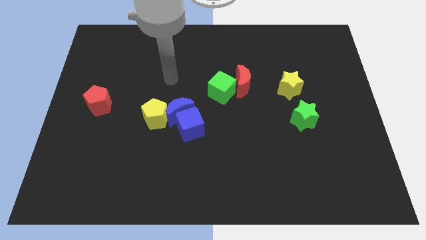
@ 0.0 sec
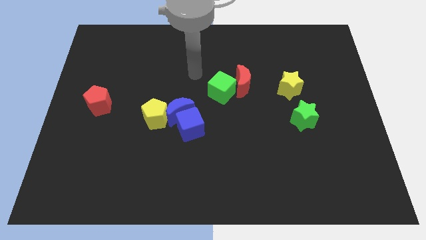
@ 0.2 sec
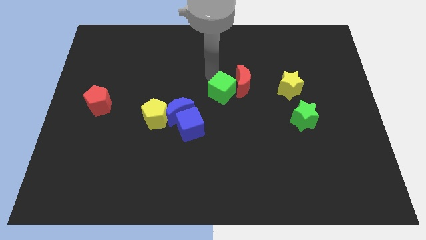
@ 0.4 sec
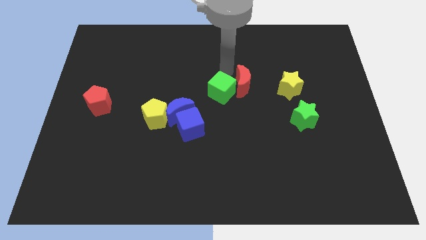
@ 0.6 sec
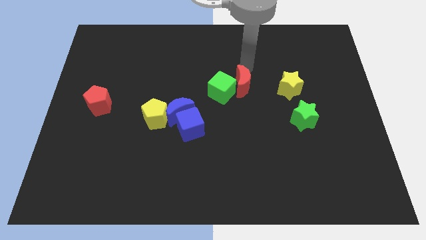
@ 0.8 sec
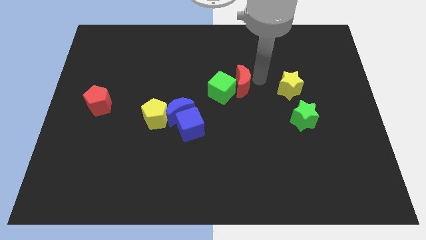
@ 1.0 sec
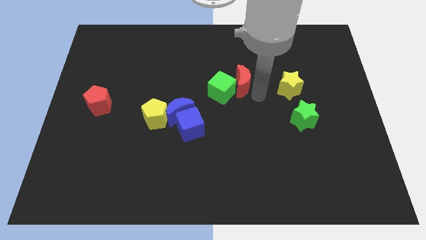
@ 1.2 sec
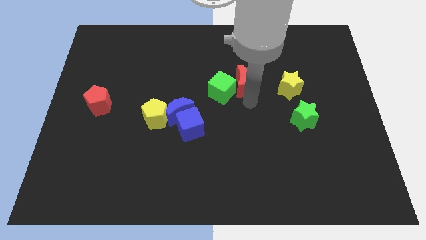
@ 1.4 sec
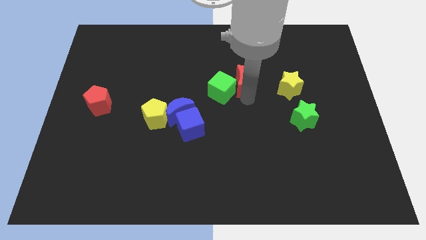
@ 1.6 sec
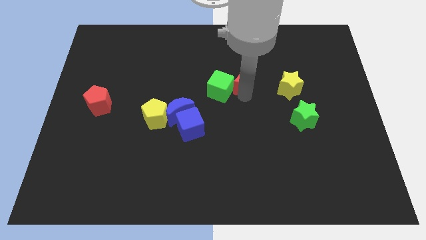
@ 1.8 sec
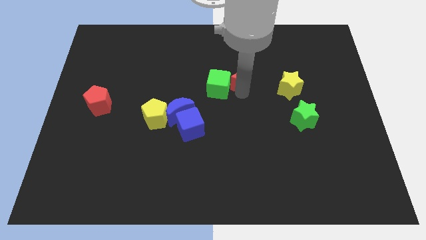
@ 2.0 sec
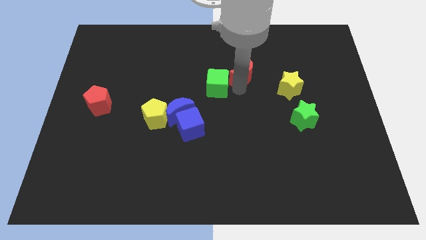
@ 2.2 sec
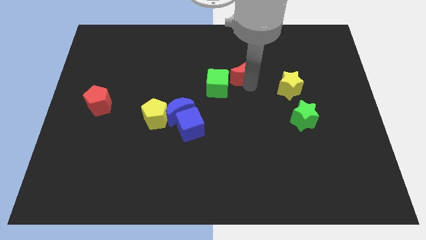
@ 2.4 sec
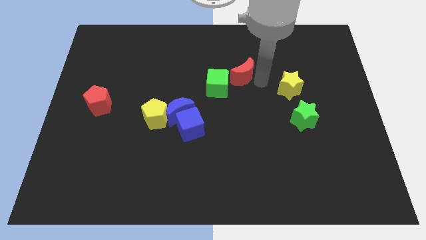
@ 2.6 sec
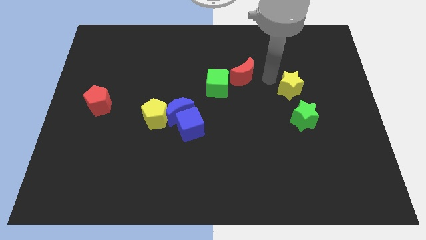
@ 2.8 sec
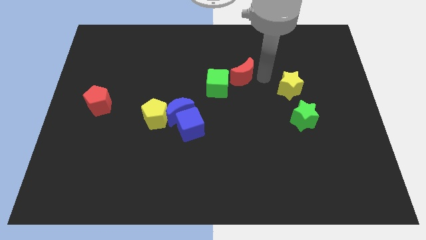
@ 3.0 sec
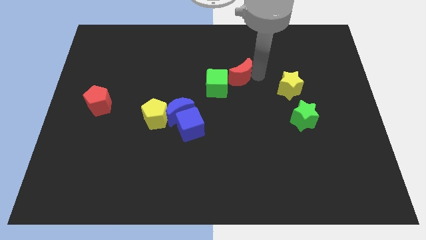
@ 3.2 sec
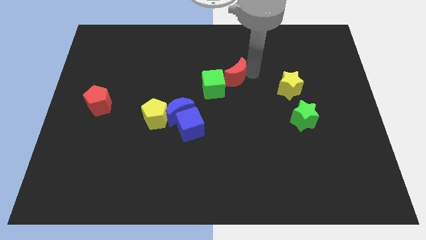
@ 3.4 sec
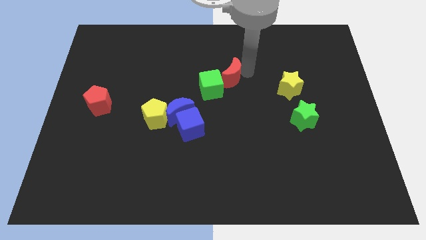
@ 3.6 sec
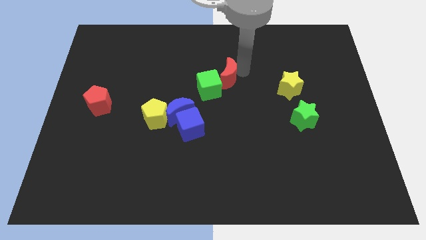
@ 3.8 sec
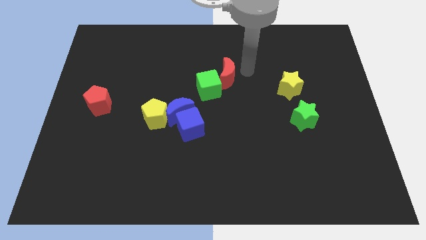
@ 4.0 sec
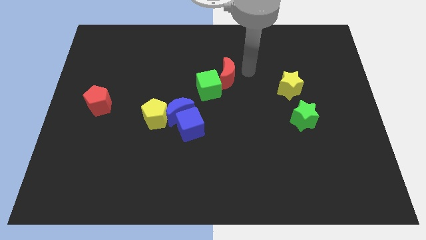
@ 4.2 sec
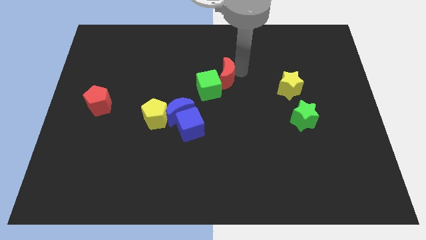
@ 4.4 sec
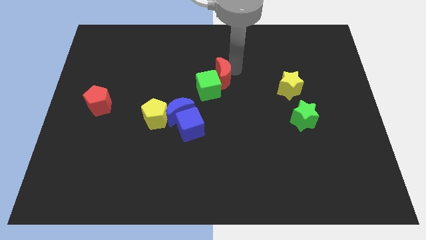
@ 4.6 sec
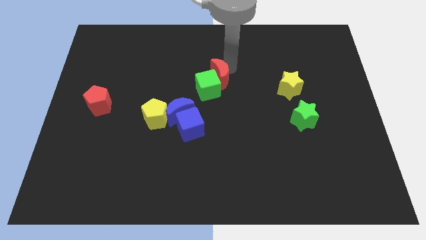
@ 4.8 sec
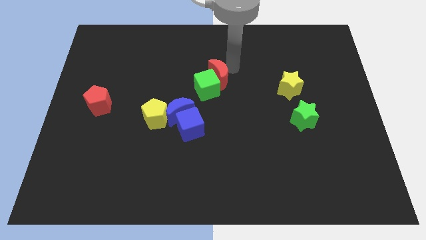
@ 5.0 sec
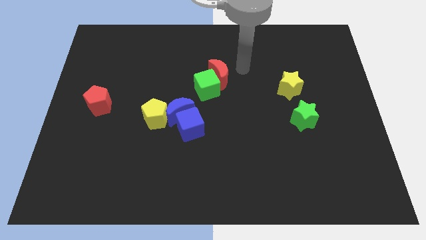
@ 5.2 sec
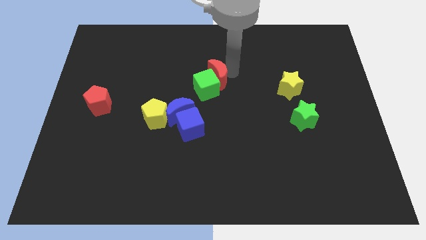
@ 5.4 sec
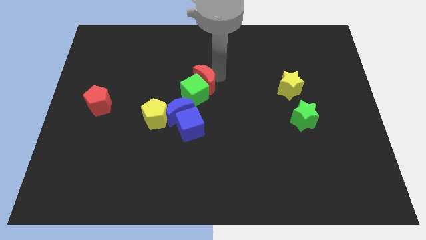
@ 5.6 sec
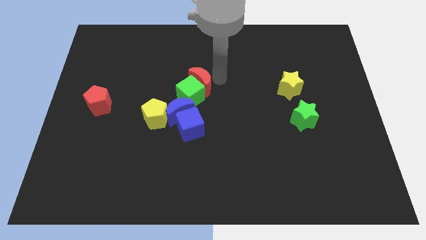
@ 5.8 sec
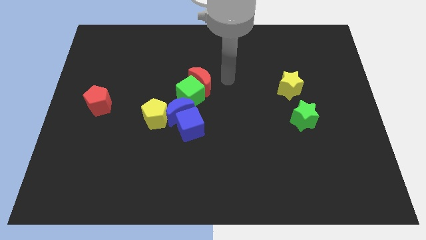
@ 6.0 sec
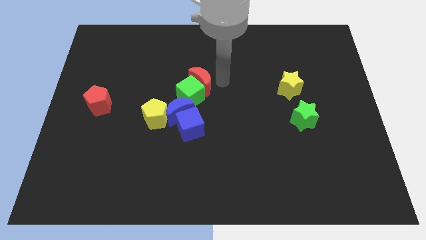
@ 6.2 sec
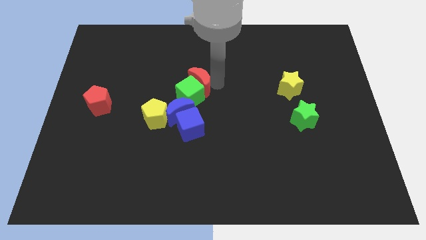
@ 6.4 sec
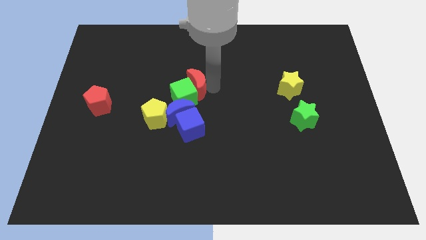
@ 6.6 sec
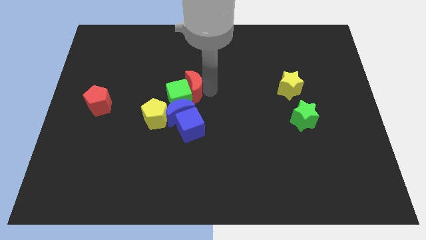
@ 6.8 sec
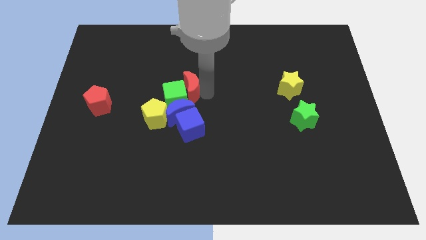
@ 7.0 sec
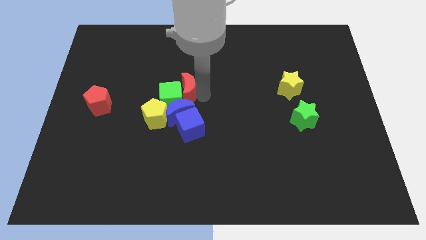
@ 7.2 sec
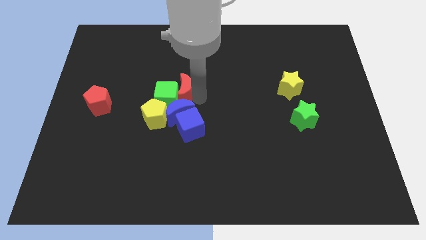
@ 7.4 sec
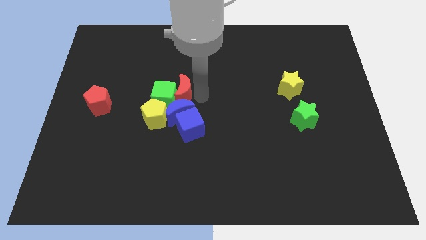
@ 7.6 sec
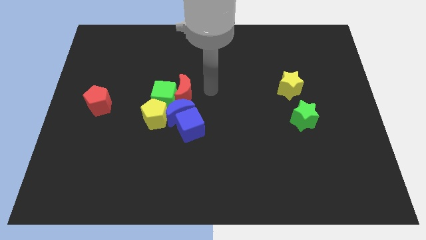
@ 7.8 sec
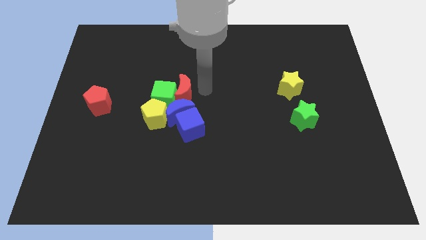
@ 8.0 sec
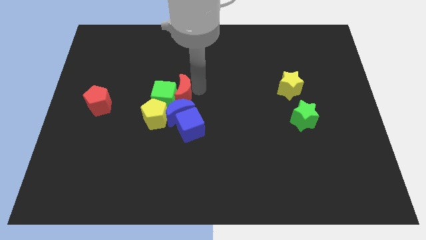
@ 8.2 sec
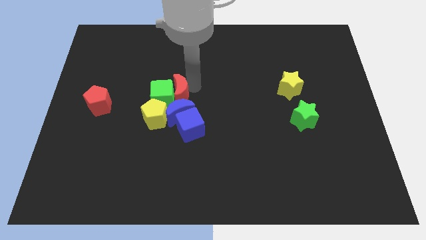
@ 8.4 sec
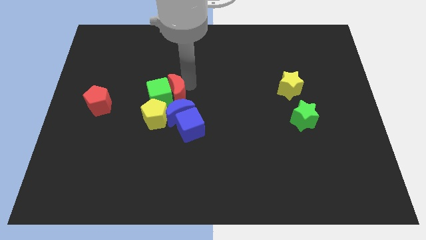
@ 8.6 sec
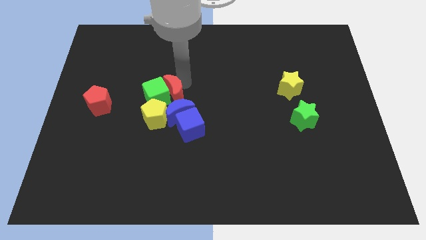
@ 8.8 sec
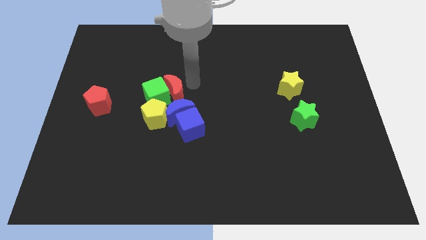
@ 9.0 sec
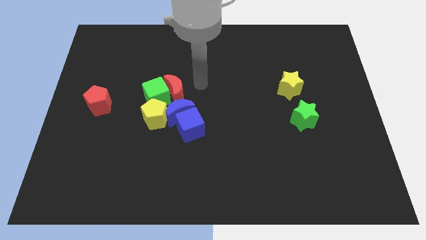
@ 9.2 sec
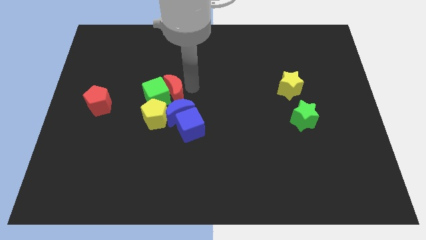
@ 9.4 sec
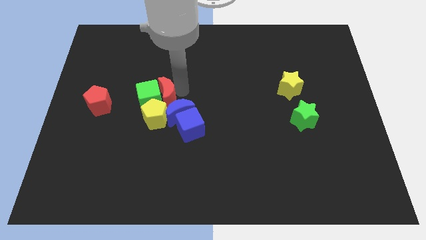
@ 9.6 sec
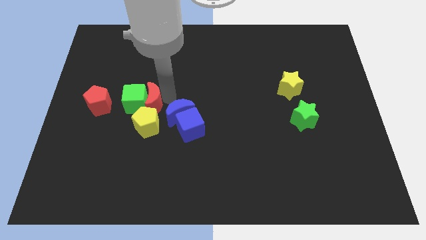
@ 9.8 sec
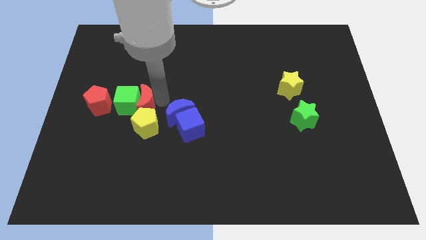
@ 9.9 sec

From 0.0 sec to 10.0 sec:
push the red moon diagonally up and to the left of the yellow pentagon

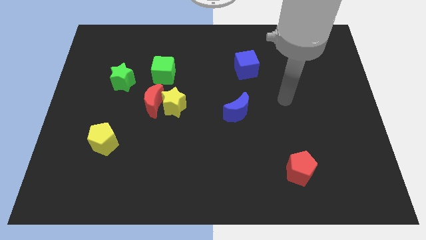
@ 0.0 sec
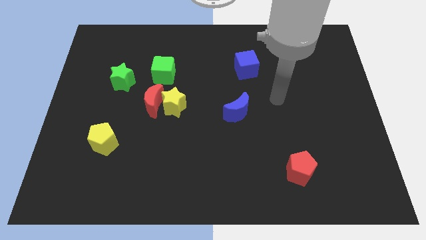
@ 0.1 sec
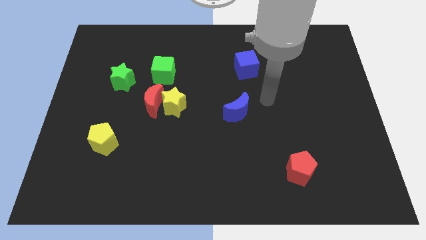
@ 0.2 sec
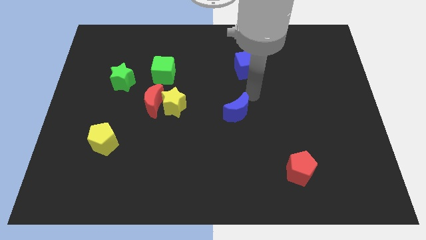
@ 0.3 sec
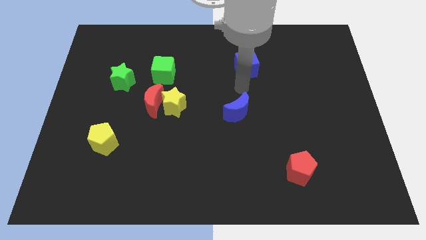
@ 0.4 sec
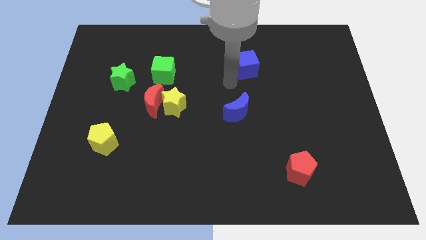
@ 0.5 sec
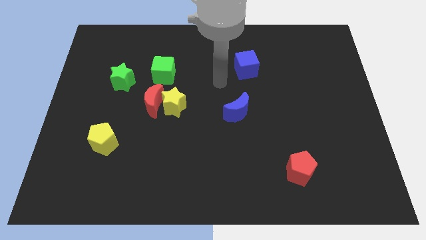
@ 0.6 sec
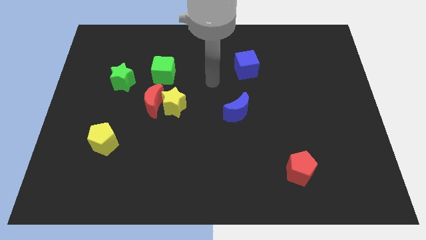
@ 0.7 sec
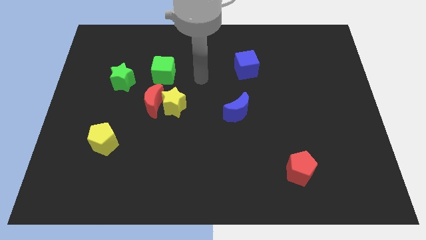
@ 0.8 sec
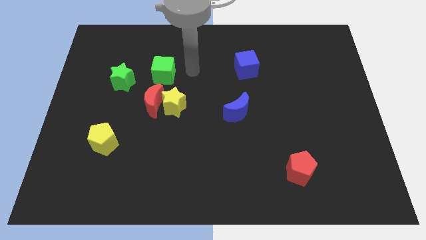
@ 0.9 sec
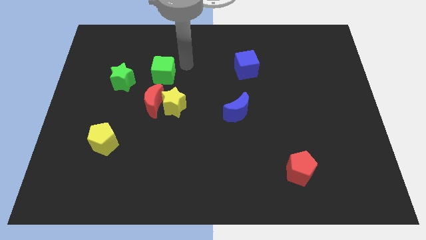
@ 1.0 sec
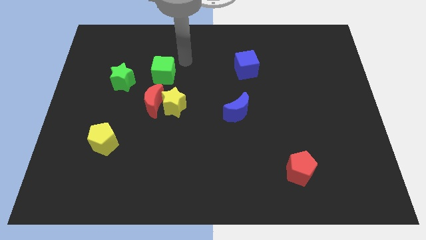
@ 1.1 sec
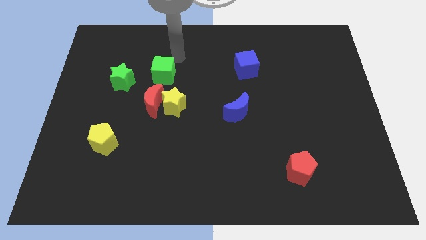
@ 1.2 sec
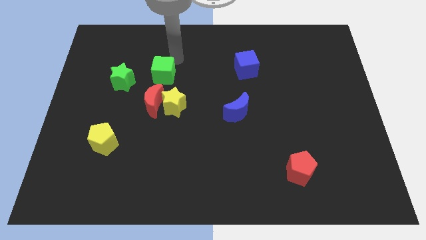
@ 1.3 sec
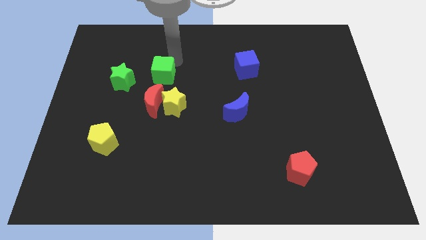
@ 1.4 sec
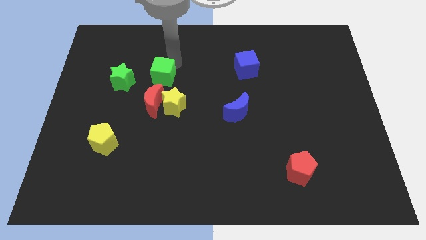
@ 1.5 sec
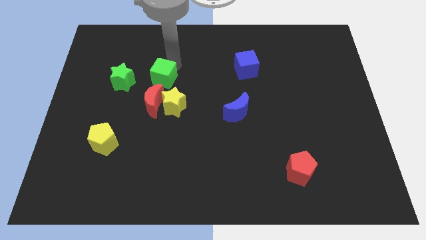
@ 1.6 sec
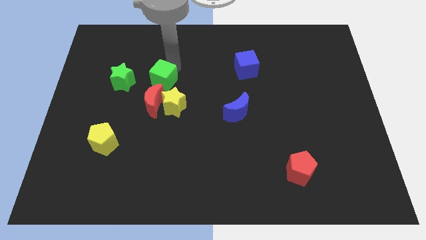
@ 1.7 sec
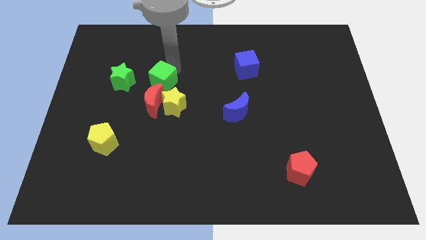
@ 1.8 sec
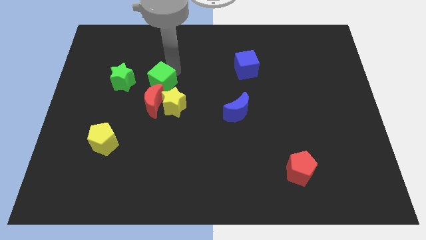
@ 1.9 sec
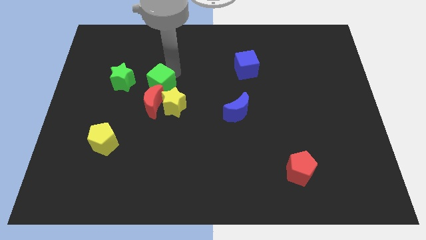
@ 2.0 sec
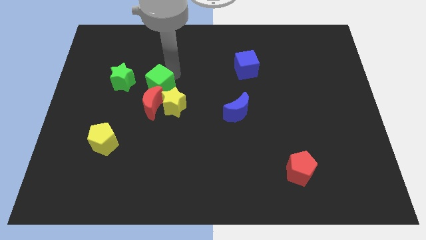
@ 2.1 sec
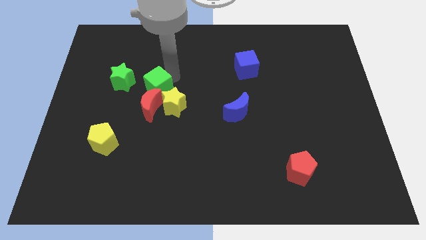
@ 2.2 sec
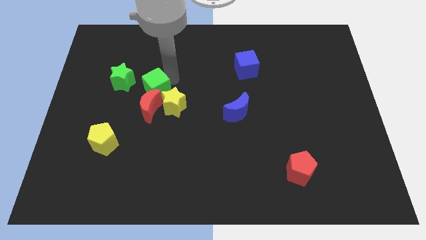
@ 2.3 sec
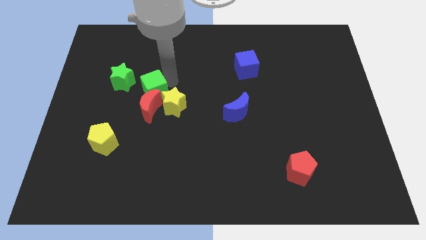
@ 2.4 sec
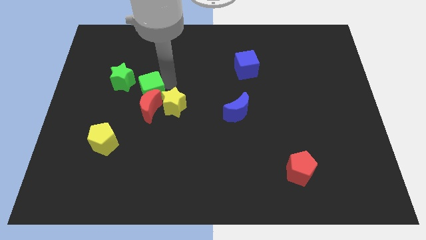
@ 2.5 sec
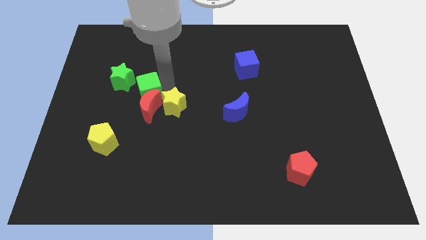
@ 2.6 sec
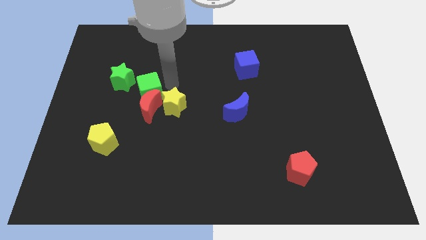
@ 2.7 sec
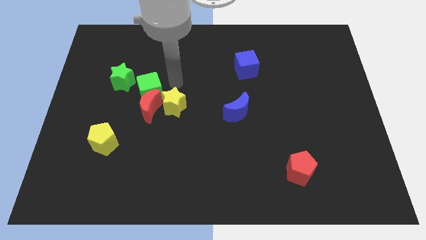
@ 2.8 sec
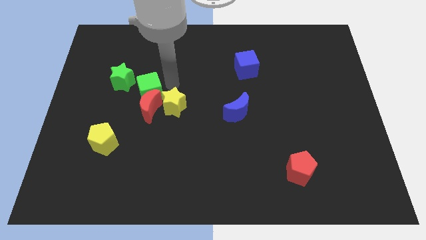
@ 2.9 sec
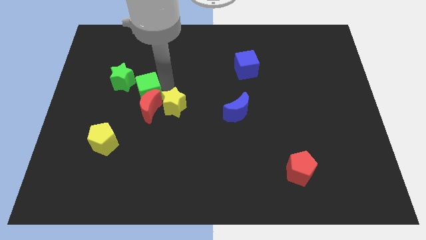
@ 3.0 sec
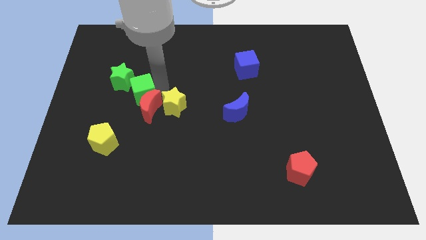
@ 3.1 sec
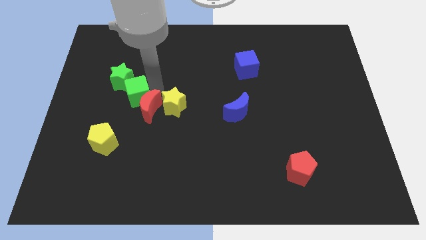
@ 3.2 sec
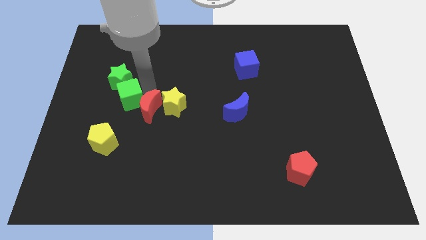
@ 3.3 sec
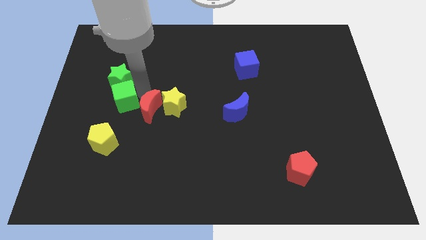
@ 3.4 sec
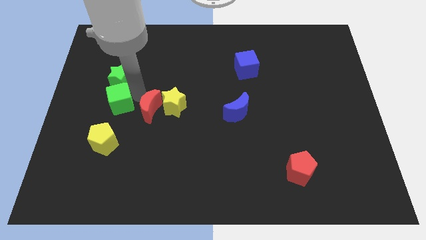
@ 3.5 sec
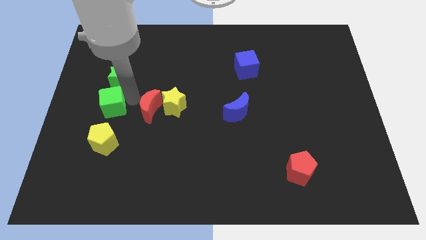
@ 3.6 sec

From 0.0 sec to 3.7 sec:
move the green cube diagonally down and to the left of the green star
